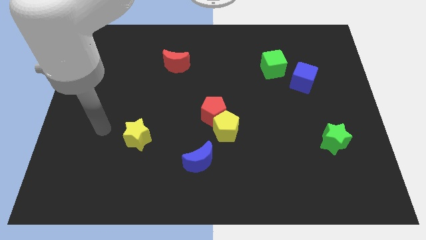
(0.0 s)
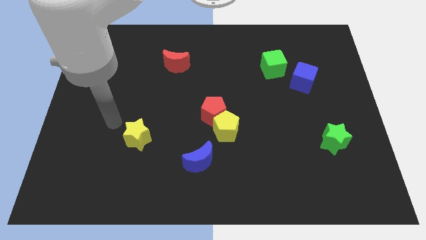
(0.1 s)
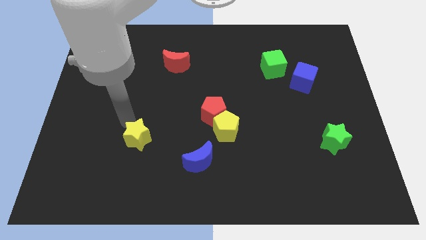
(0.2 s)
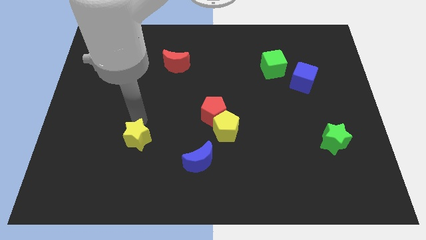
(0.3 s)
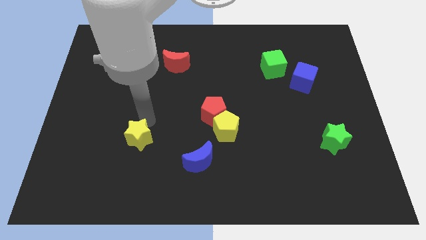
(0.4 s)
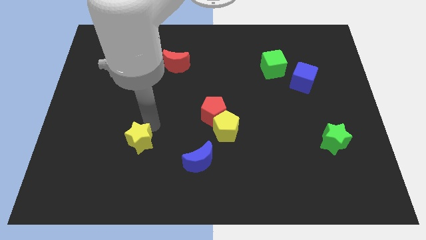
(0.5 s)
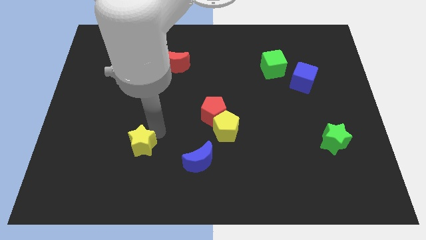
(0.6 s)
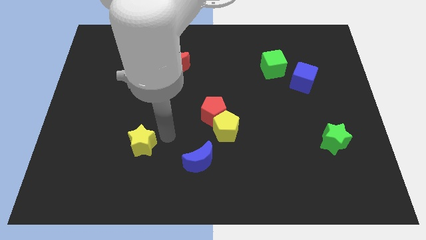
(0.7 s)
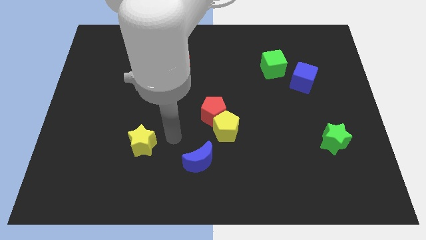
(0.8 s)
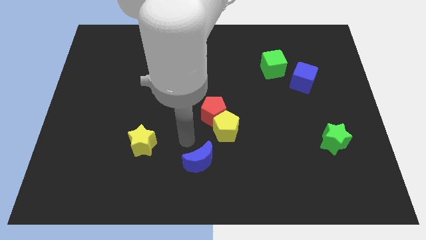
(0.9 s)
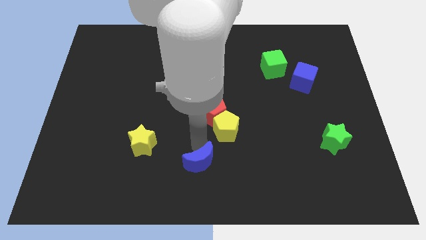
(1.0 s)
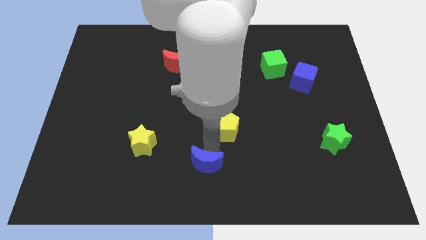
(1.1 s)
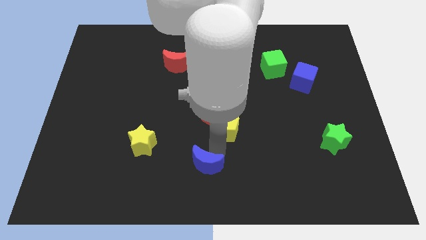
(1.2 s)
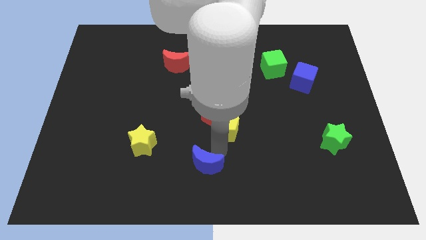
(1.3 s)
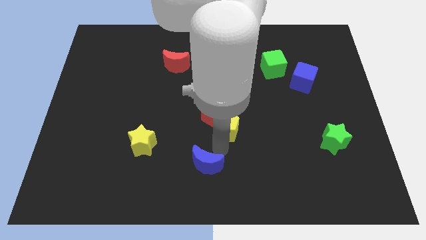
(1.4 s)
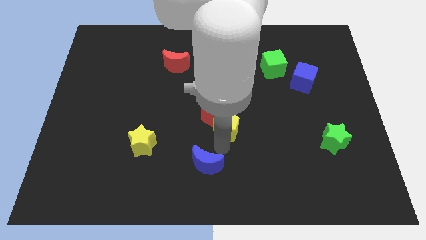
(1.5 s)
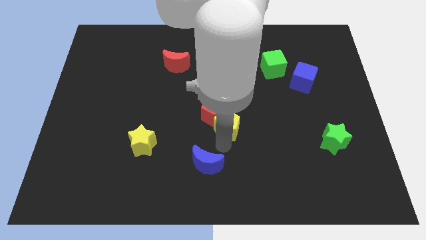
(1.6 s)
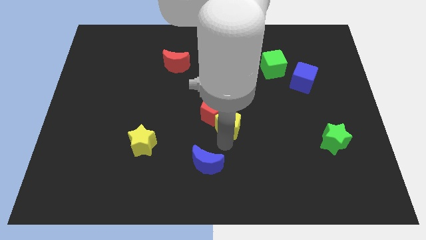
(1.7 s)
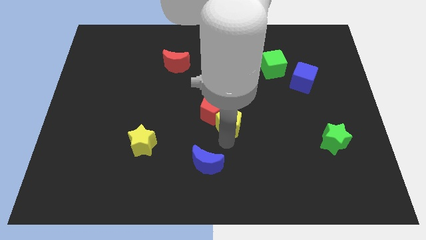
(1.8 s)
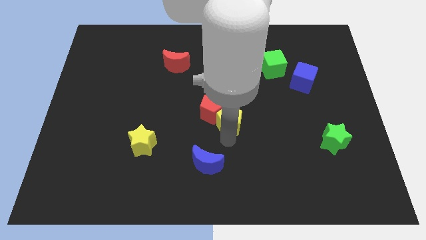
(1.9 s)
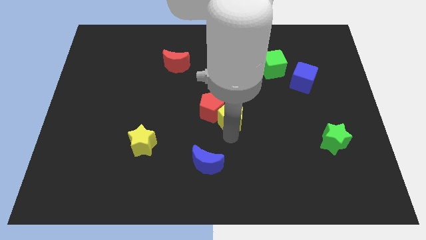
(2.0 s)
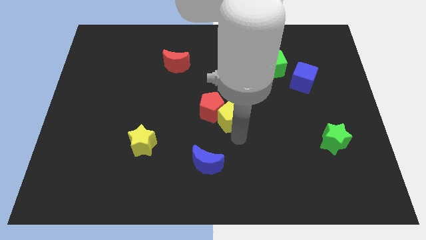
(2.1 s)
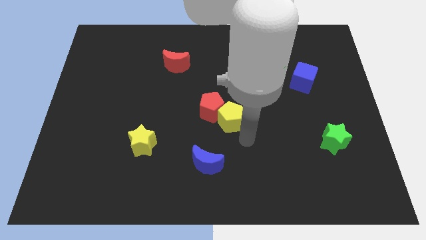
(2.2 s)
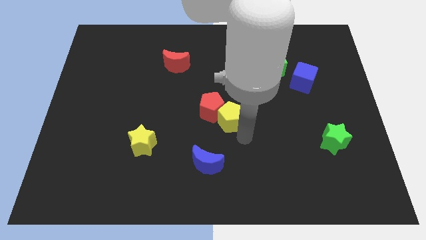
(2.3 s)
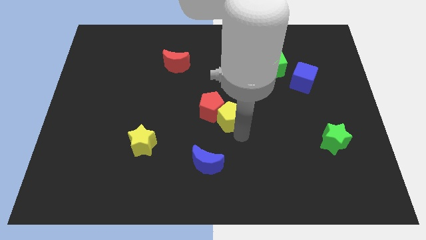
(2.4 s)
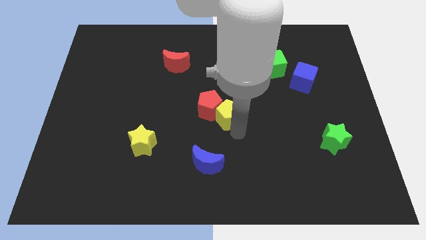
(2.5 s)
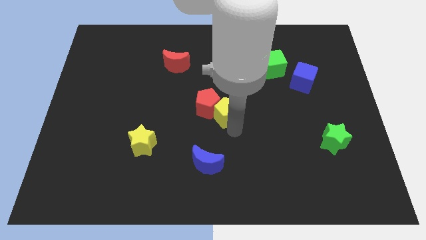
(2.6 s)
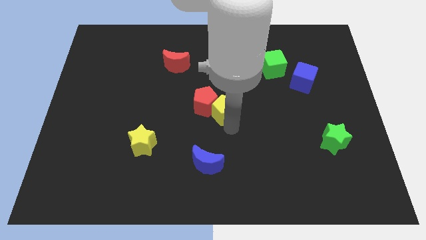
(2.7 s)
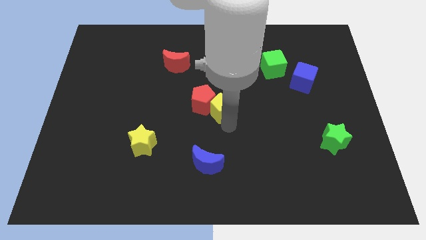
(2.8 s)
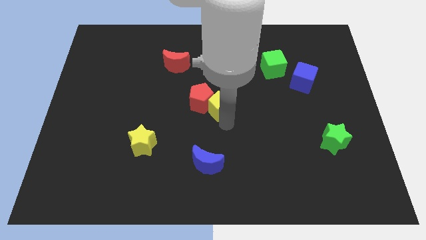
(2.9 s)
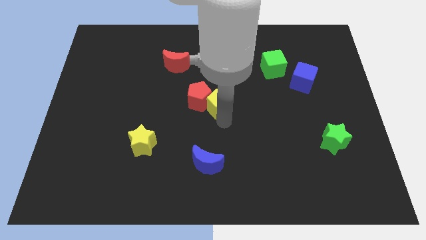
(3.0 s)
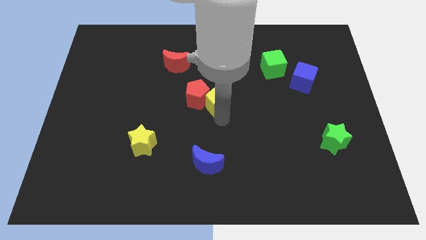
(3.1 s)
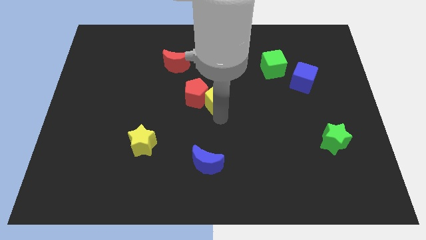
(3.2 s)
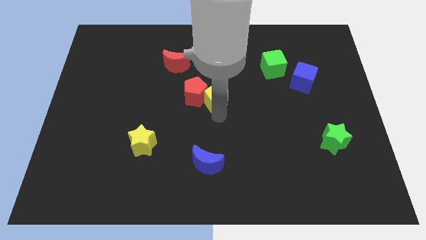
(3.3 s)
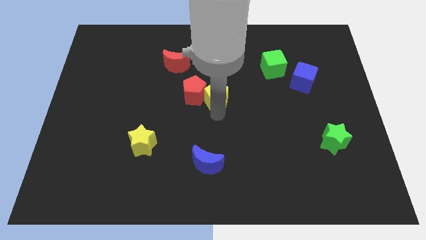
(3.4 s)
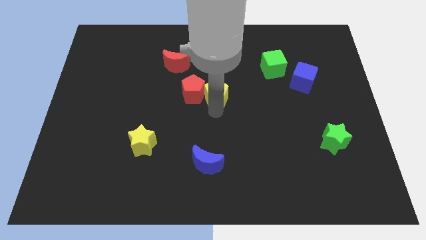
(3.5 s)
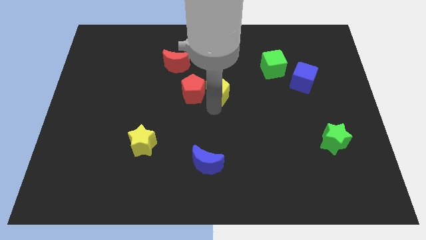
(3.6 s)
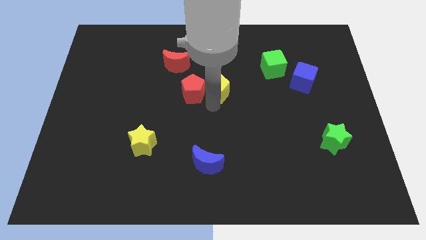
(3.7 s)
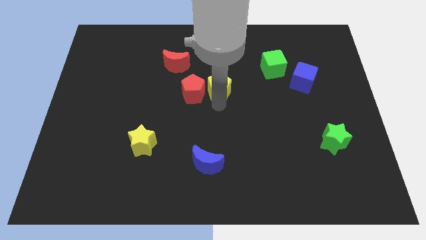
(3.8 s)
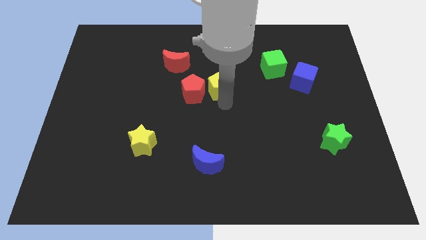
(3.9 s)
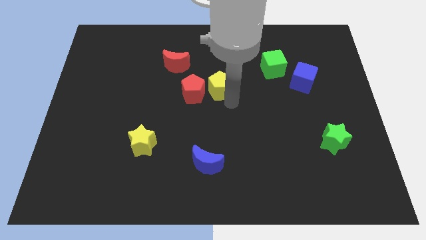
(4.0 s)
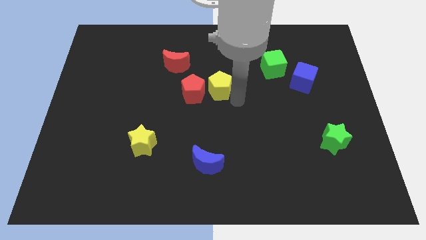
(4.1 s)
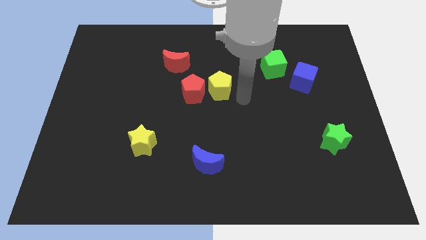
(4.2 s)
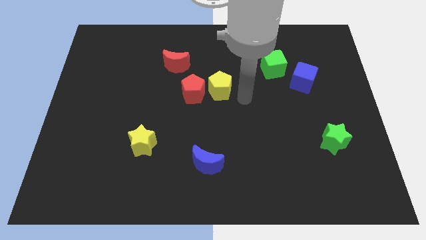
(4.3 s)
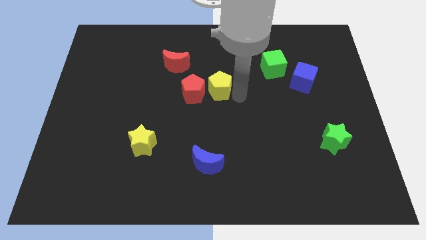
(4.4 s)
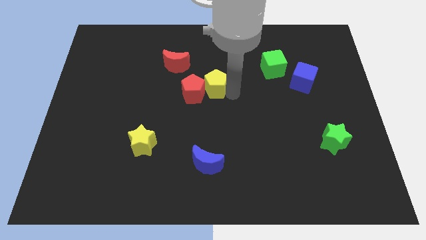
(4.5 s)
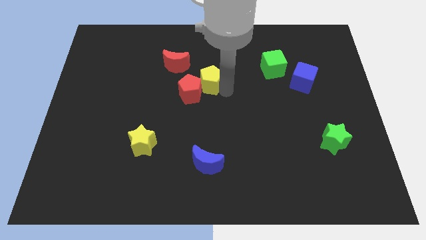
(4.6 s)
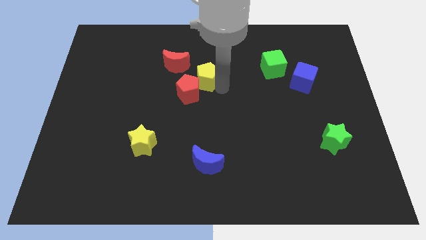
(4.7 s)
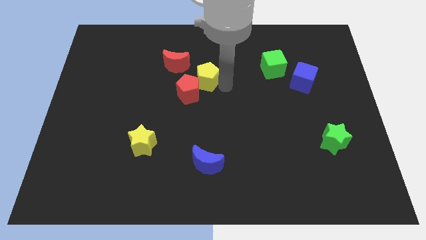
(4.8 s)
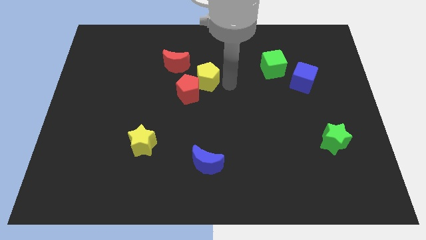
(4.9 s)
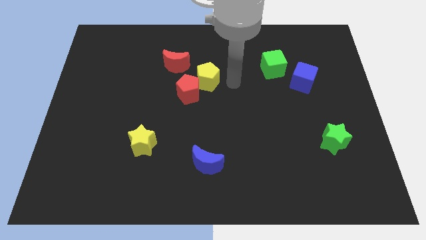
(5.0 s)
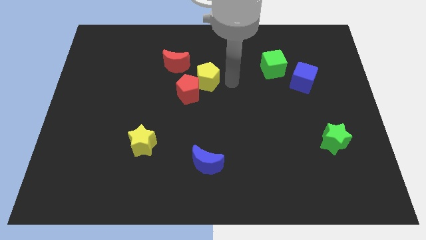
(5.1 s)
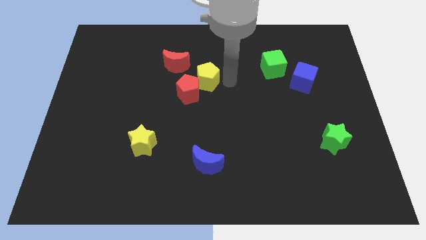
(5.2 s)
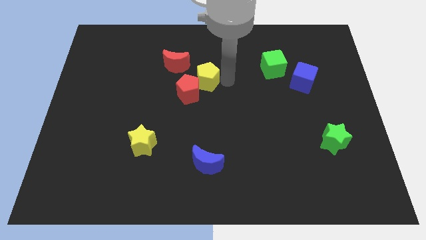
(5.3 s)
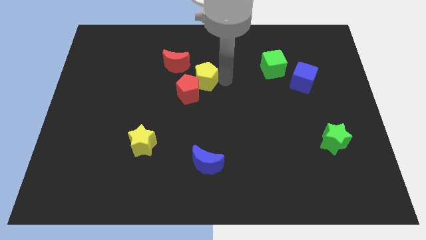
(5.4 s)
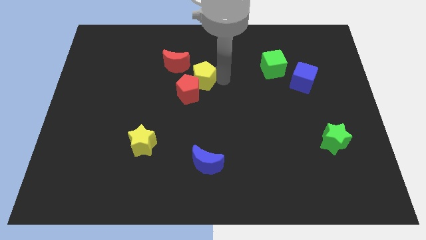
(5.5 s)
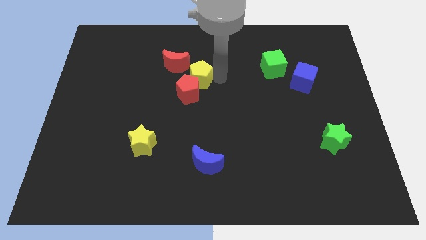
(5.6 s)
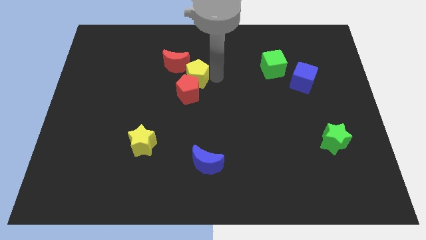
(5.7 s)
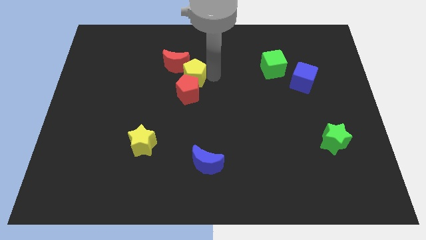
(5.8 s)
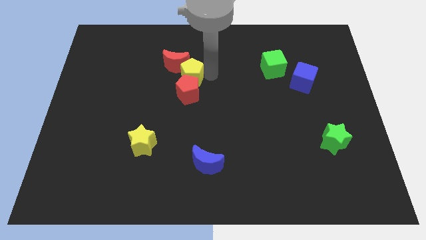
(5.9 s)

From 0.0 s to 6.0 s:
push the yellow pentagon to the red moon
